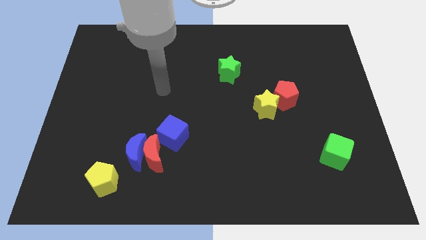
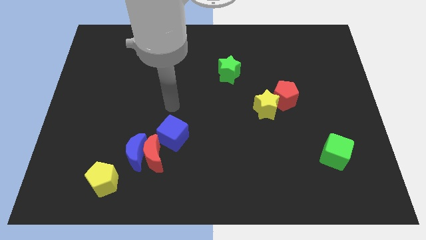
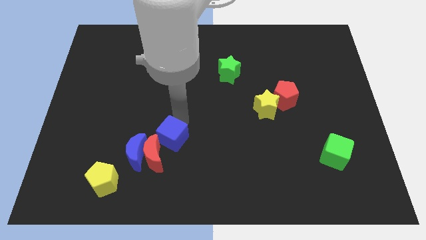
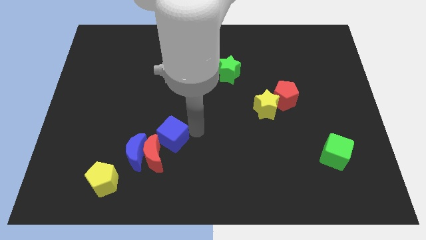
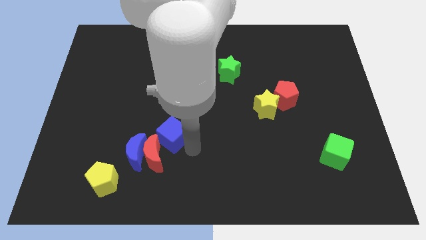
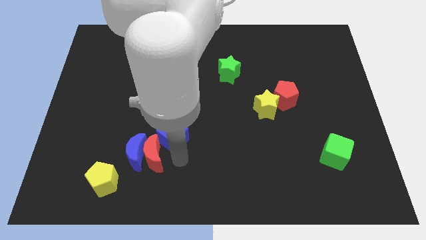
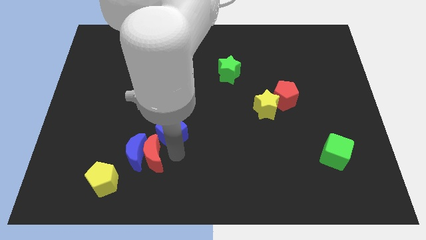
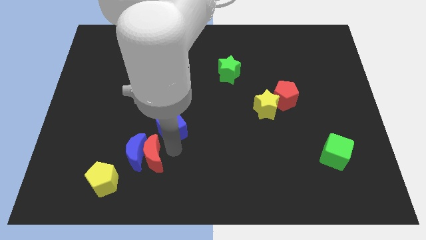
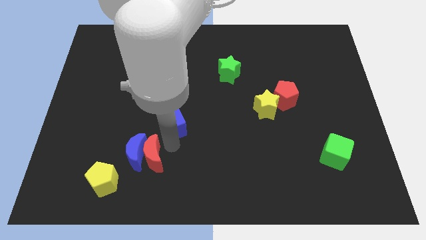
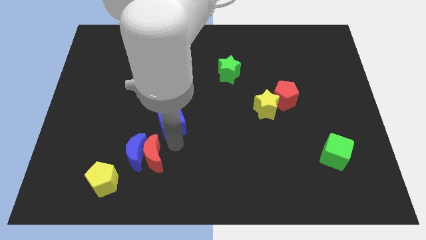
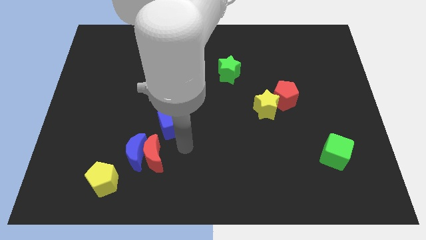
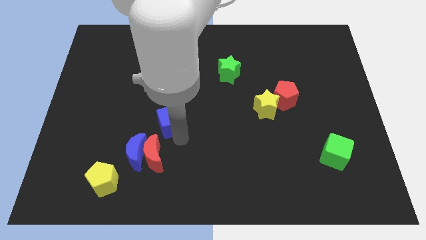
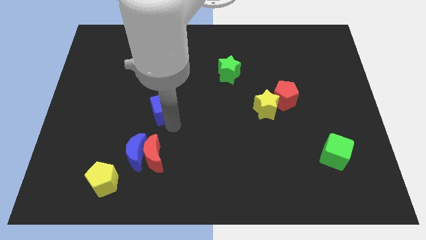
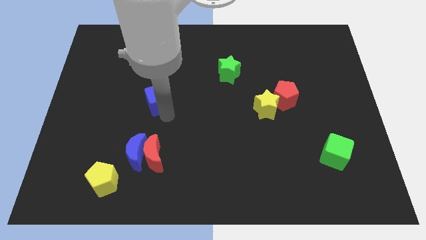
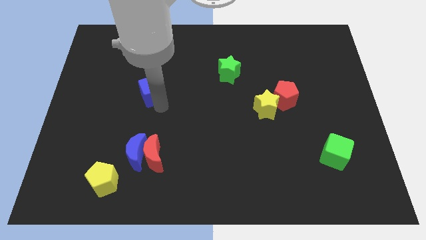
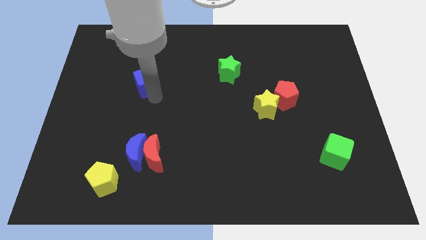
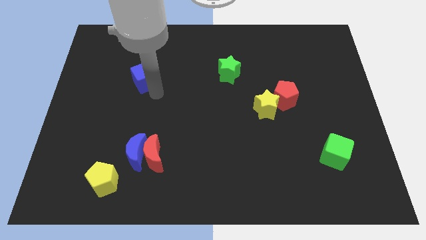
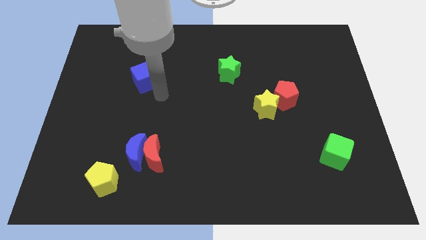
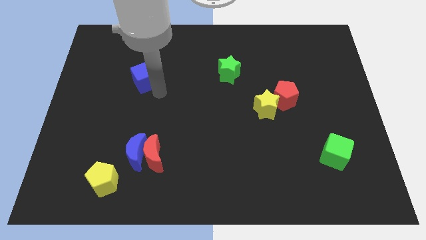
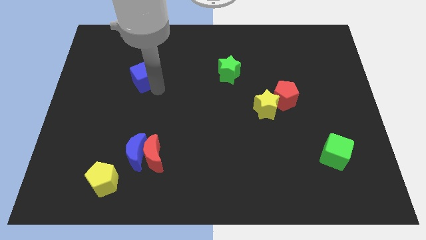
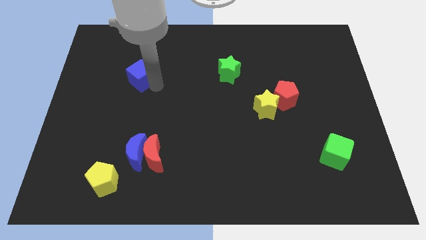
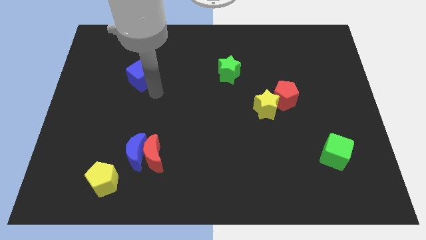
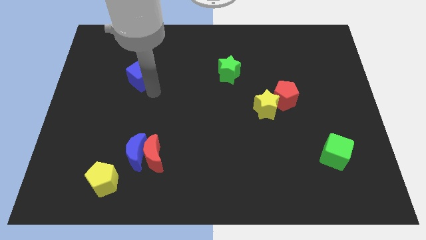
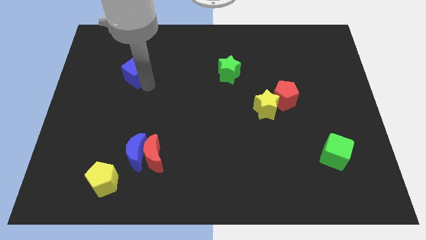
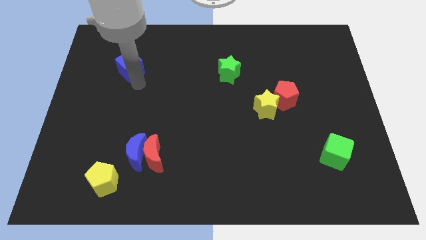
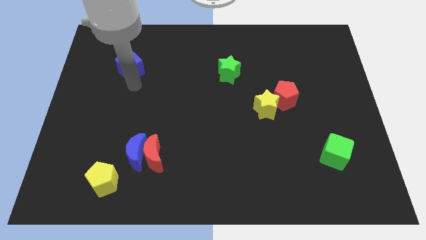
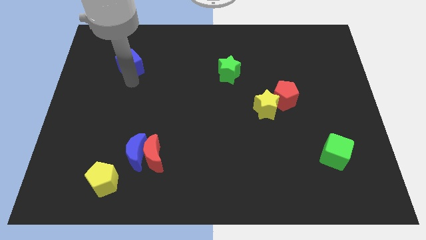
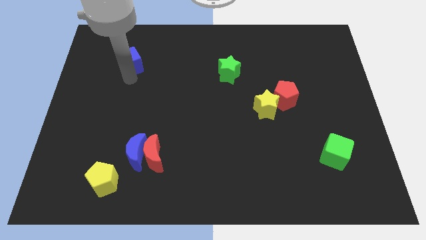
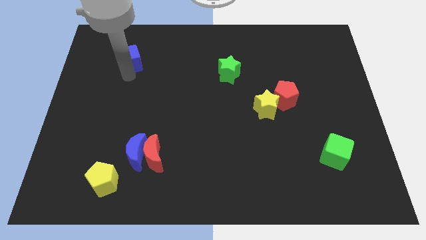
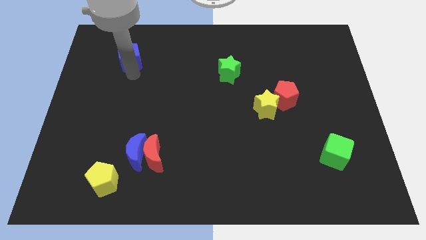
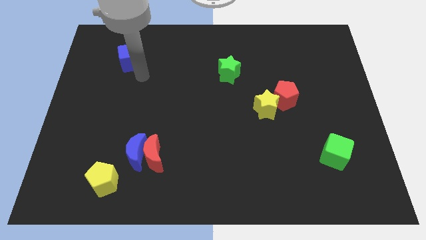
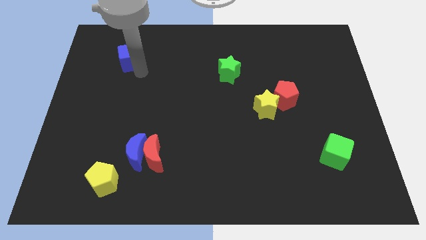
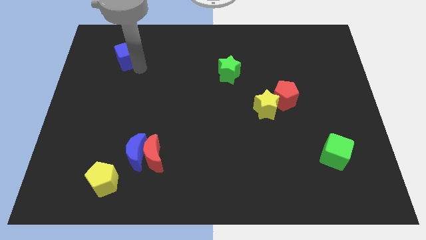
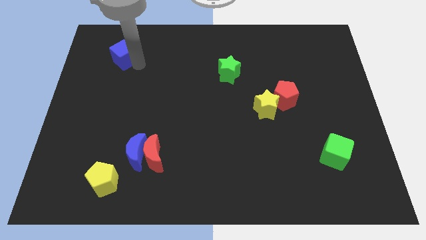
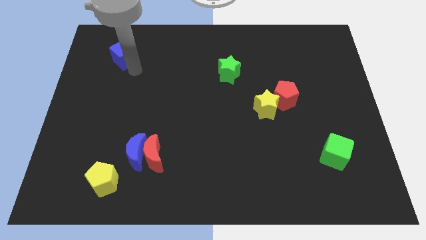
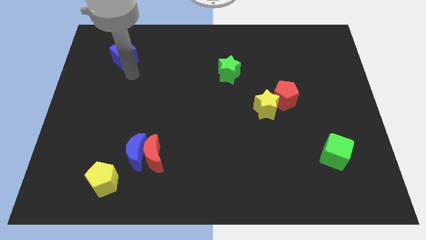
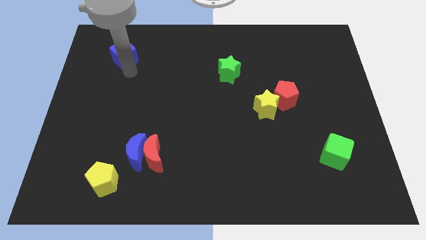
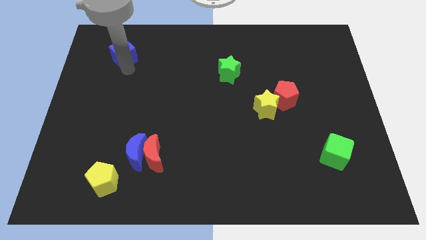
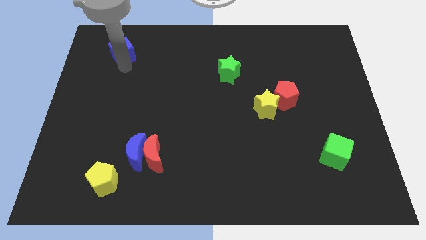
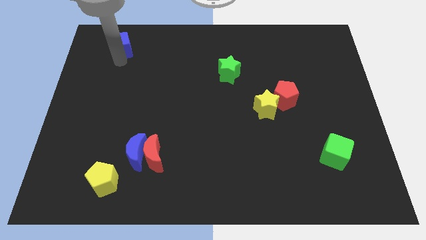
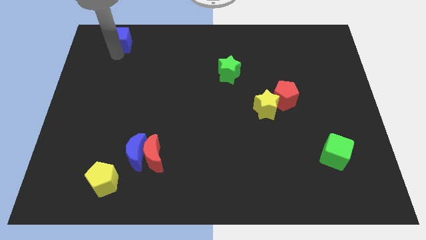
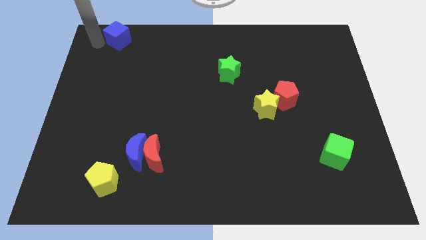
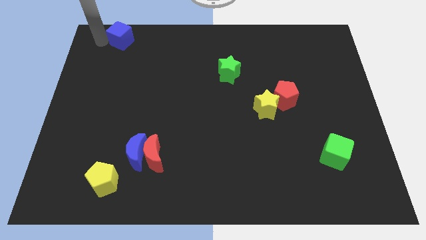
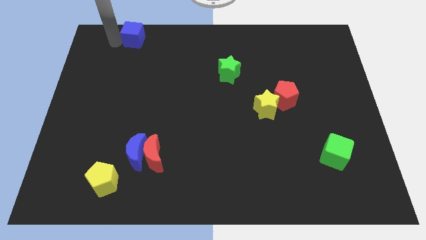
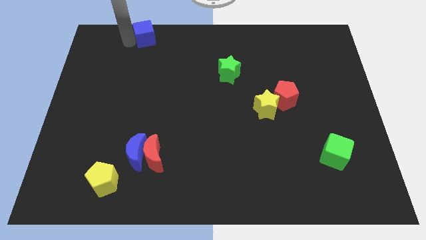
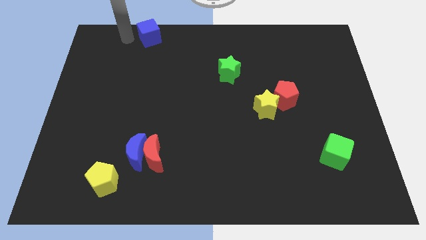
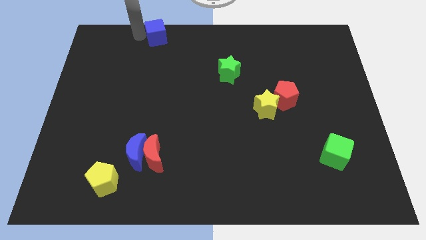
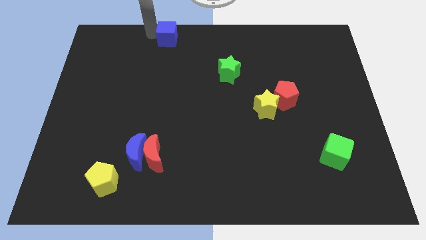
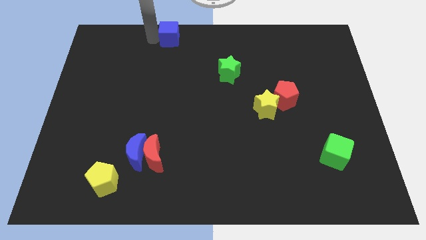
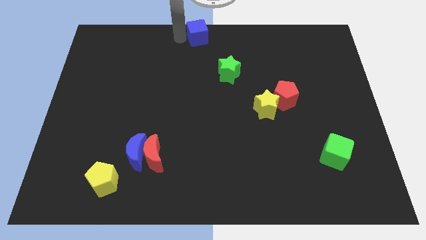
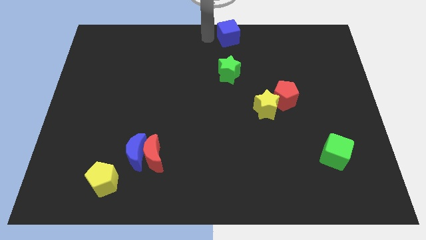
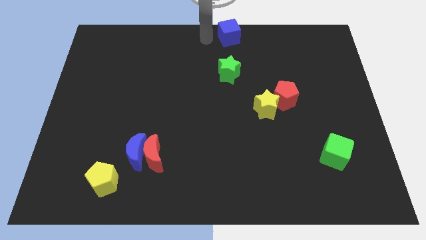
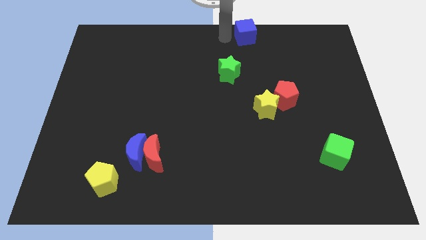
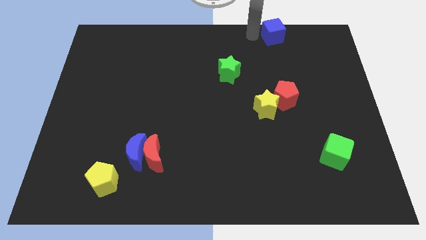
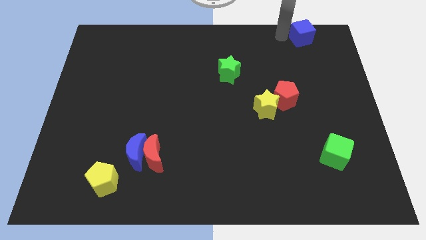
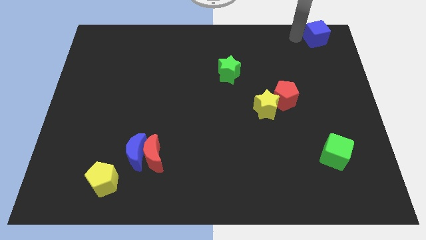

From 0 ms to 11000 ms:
move the blue cube to the top right of the board
